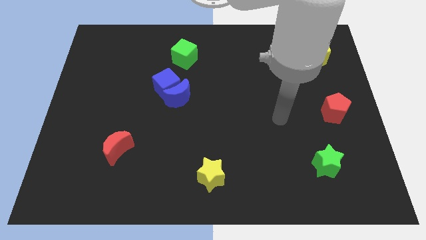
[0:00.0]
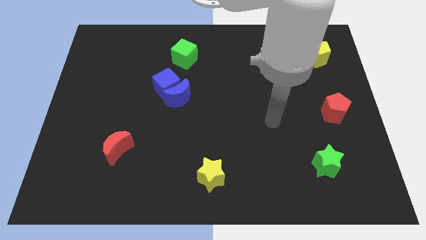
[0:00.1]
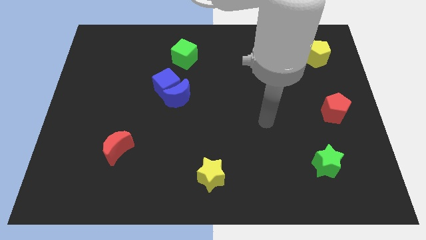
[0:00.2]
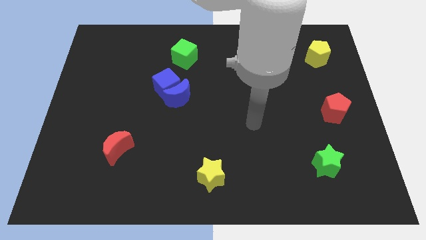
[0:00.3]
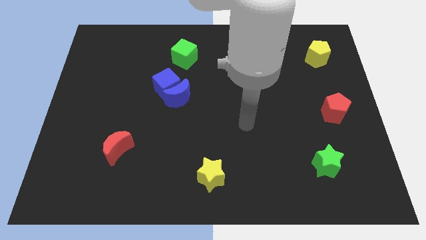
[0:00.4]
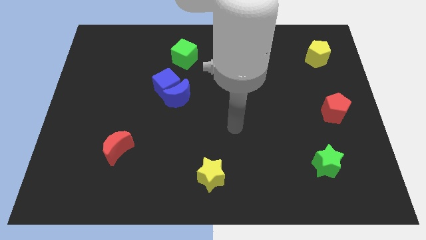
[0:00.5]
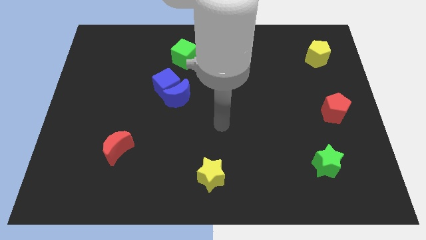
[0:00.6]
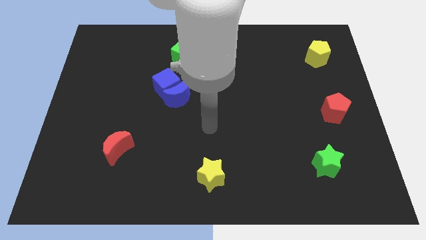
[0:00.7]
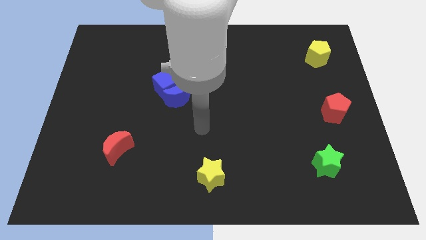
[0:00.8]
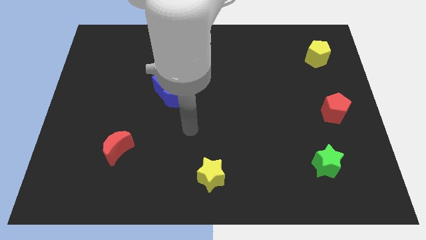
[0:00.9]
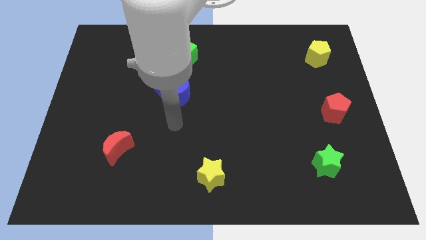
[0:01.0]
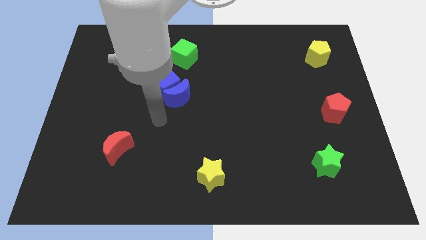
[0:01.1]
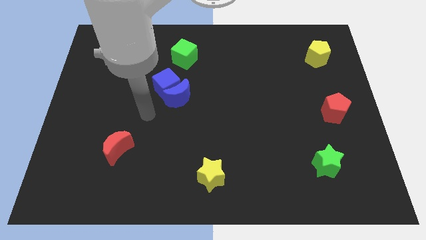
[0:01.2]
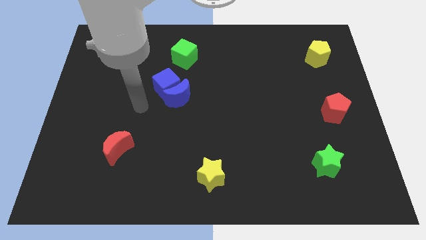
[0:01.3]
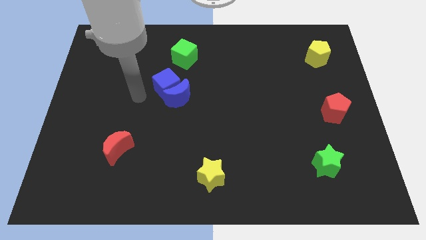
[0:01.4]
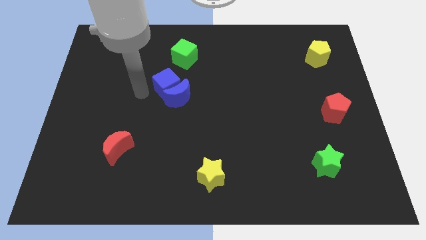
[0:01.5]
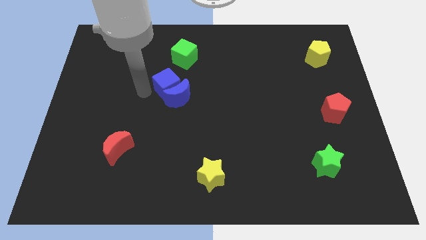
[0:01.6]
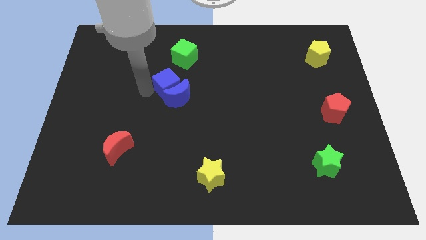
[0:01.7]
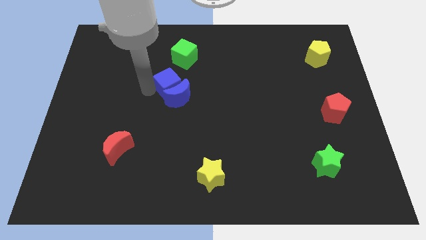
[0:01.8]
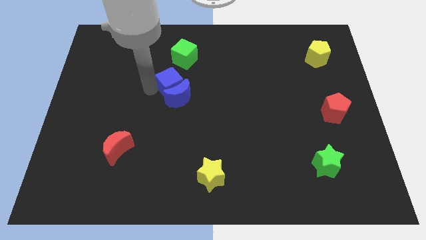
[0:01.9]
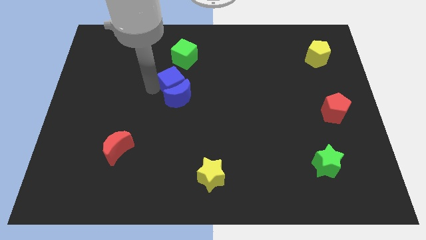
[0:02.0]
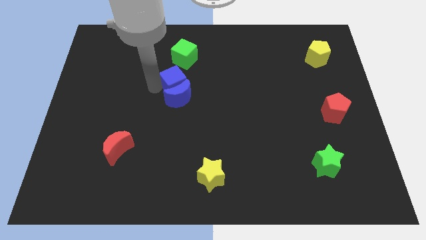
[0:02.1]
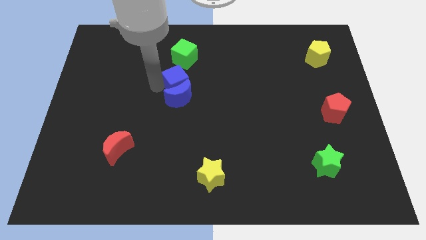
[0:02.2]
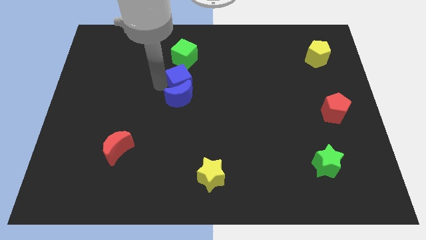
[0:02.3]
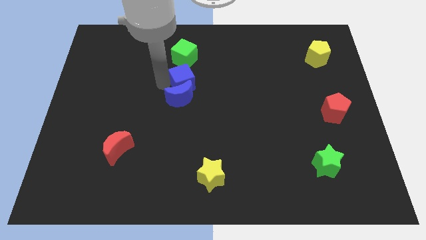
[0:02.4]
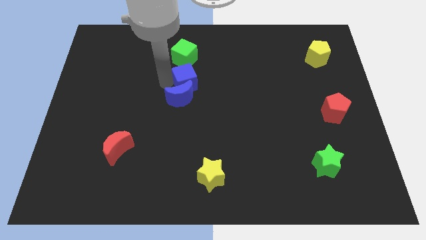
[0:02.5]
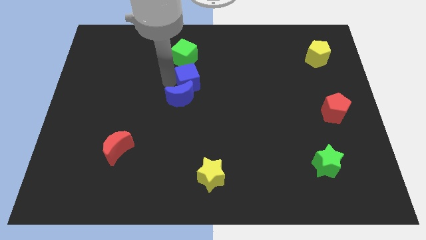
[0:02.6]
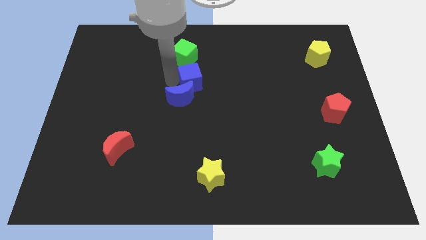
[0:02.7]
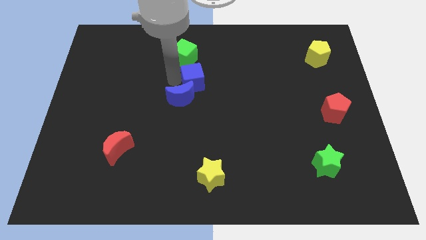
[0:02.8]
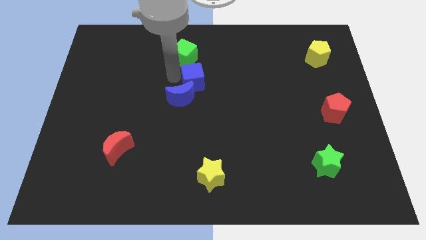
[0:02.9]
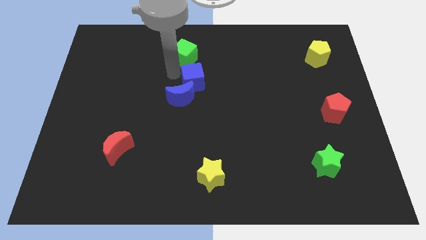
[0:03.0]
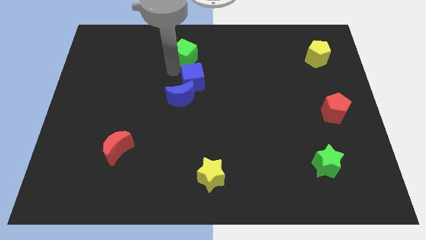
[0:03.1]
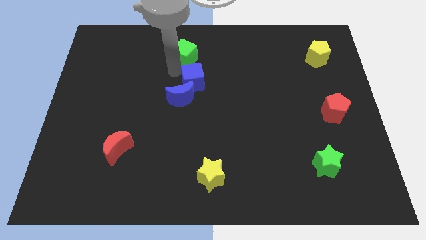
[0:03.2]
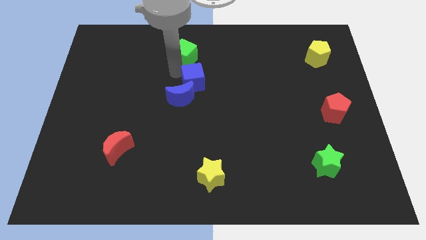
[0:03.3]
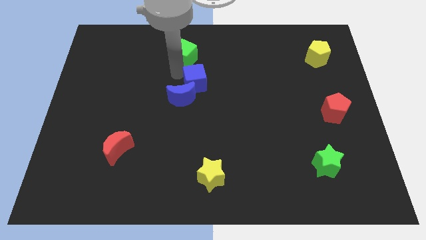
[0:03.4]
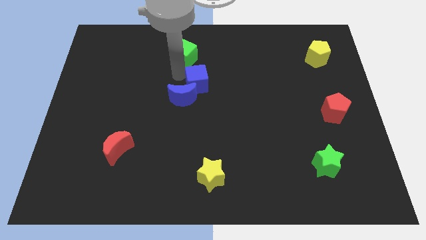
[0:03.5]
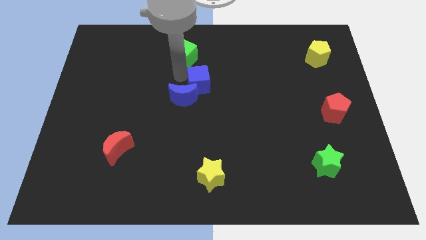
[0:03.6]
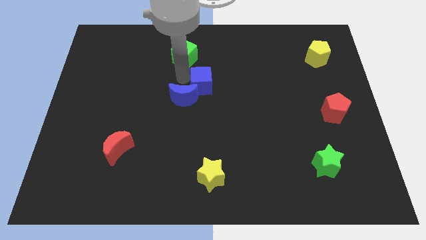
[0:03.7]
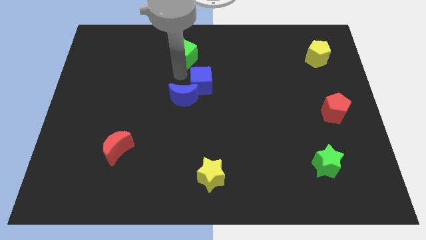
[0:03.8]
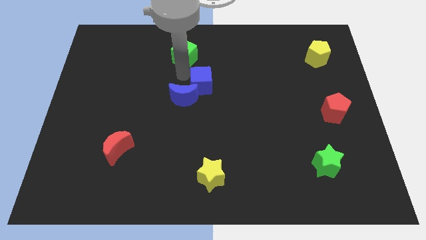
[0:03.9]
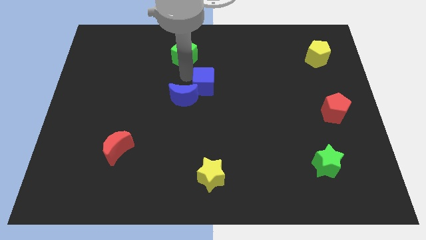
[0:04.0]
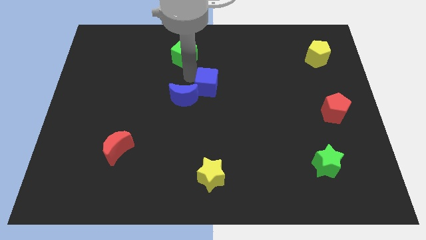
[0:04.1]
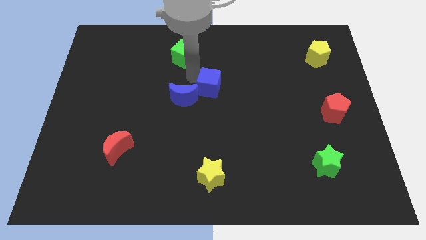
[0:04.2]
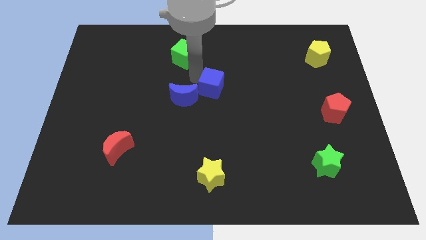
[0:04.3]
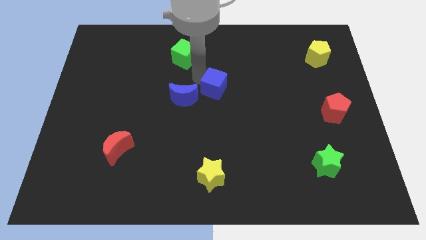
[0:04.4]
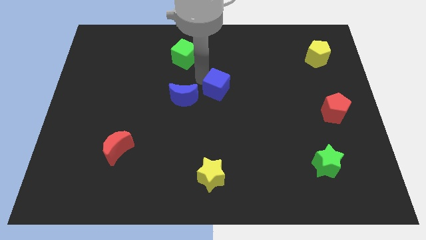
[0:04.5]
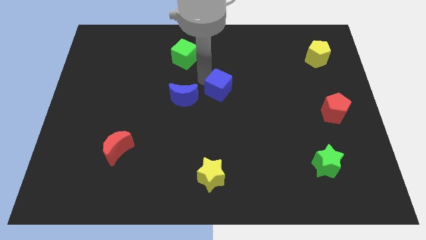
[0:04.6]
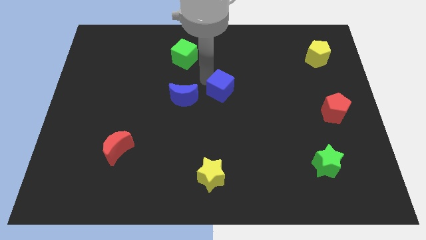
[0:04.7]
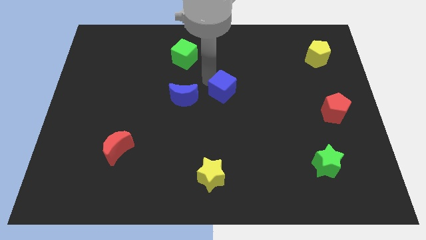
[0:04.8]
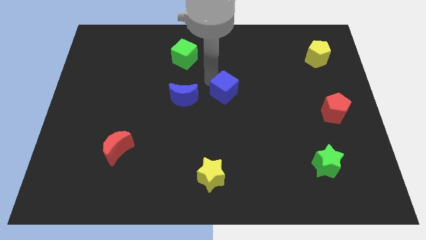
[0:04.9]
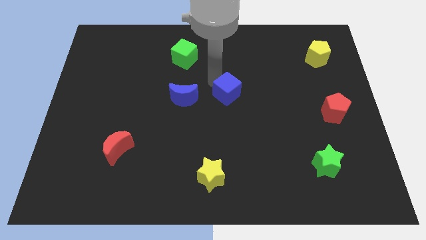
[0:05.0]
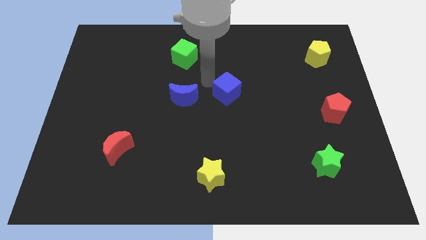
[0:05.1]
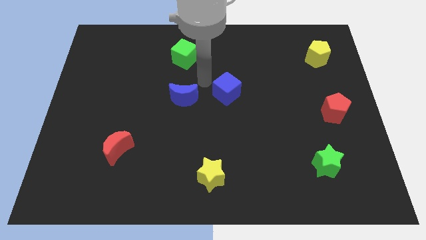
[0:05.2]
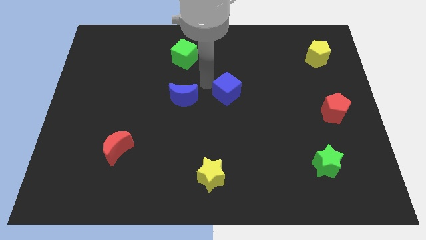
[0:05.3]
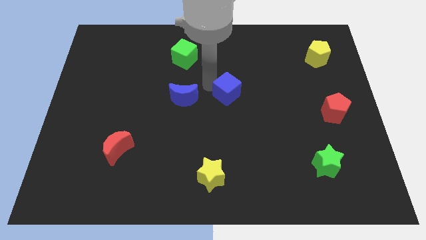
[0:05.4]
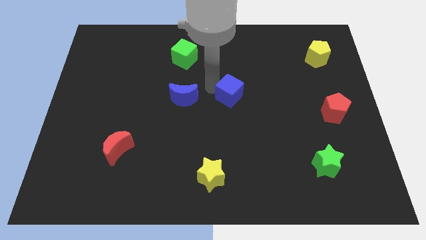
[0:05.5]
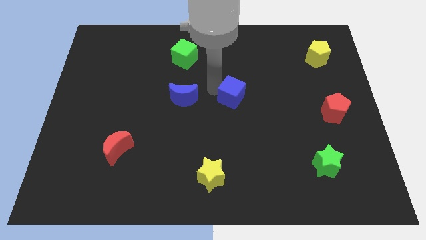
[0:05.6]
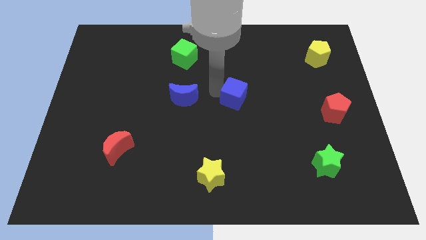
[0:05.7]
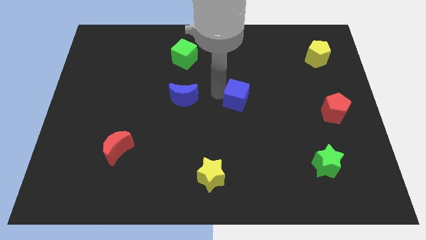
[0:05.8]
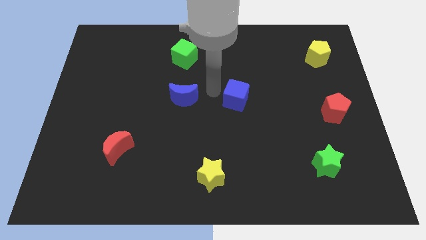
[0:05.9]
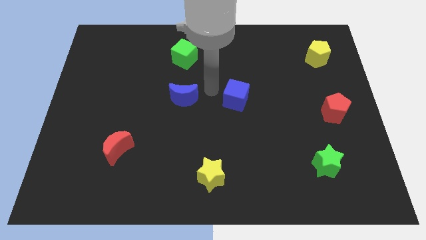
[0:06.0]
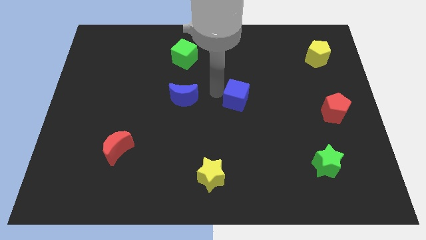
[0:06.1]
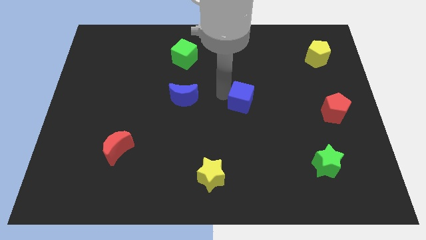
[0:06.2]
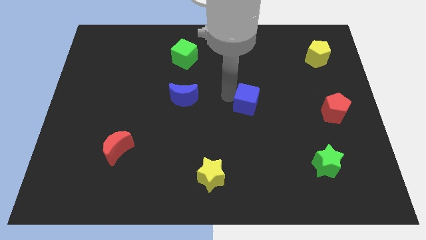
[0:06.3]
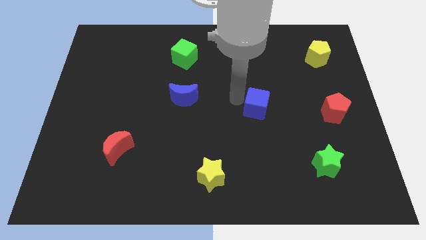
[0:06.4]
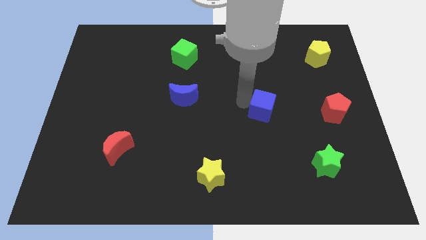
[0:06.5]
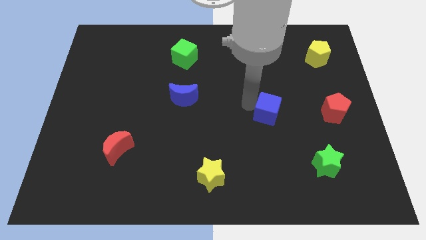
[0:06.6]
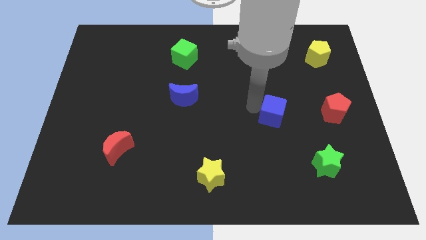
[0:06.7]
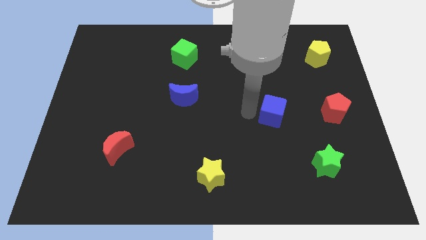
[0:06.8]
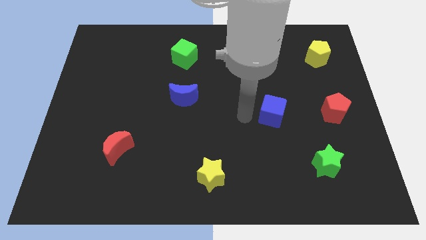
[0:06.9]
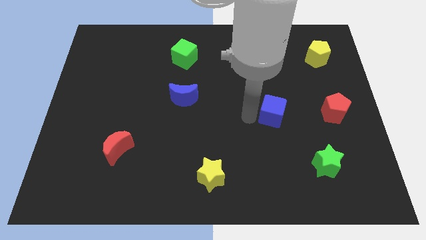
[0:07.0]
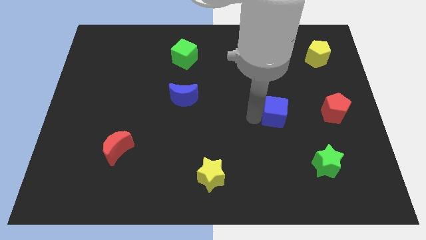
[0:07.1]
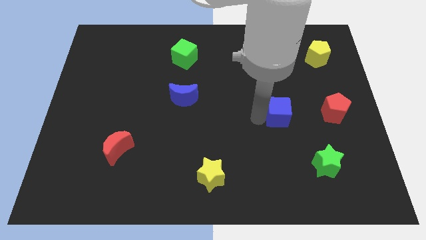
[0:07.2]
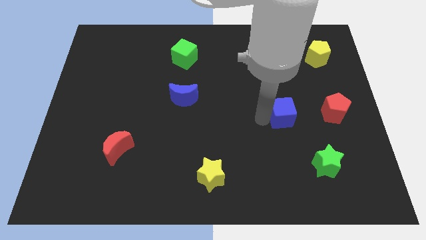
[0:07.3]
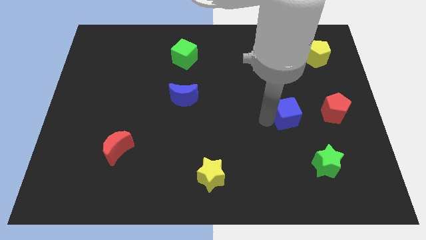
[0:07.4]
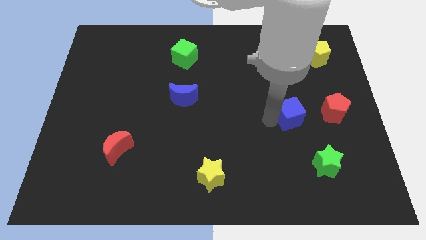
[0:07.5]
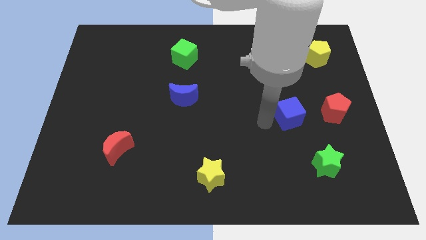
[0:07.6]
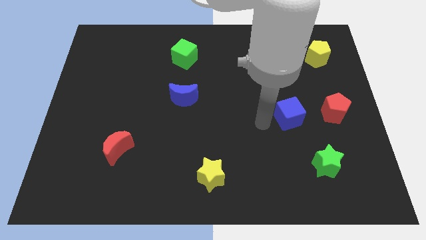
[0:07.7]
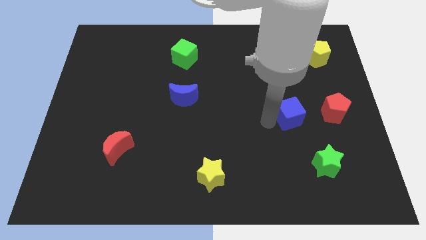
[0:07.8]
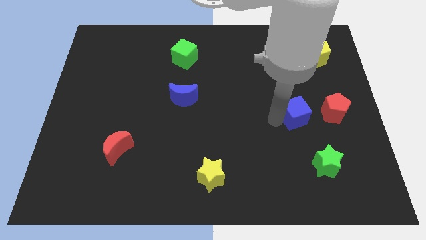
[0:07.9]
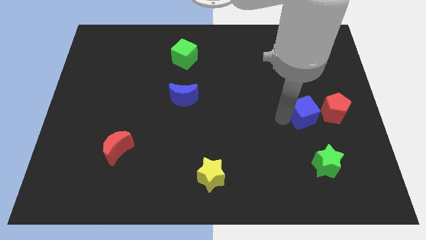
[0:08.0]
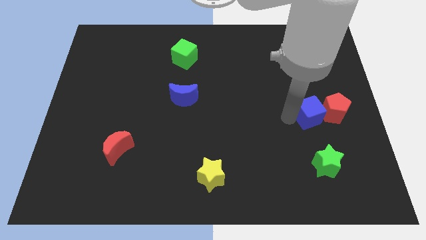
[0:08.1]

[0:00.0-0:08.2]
push the blue cube towards the red pentagon
